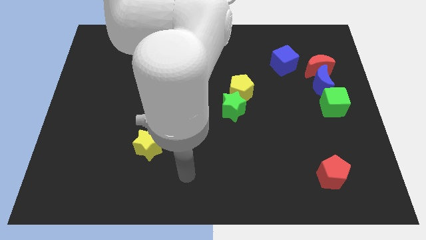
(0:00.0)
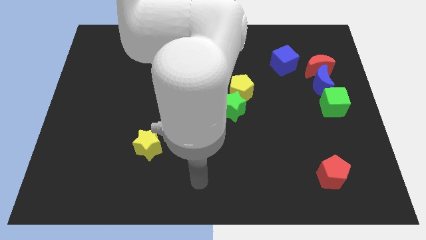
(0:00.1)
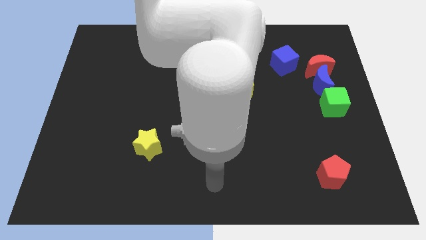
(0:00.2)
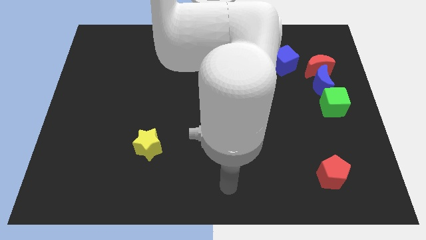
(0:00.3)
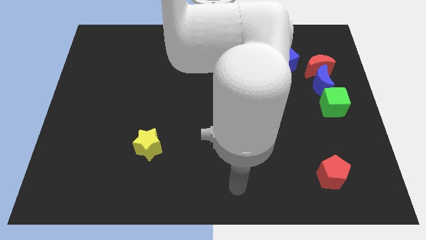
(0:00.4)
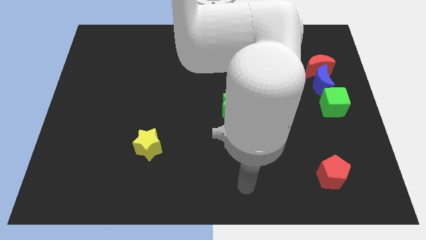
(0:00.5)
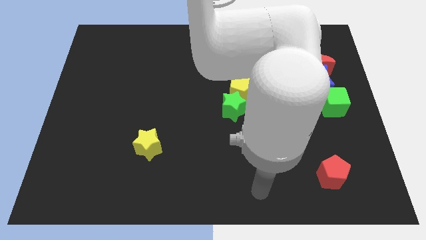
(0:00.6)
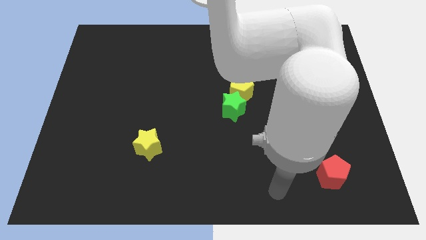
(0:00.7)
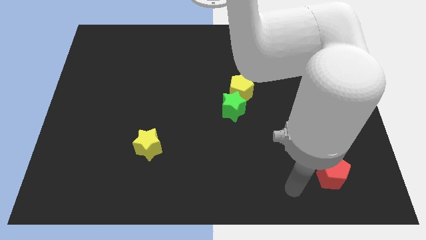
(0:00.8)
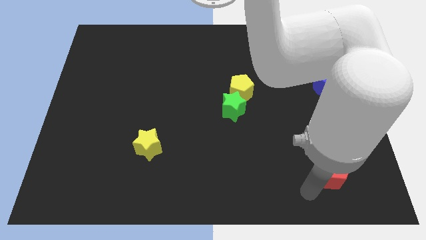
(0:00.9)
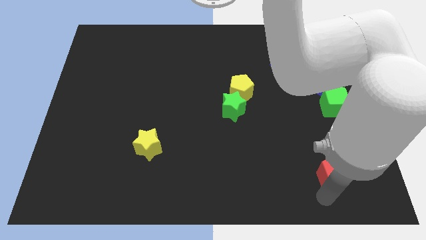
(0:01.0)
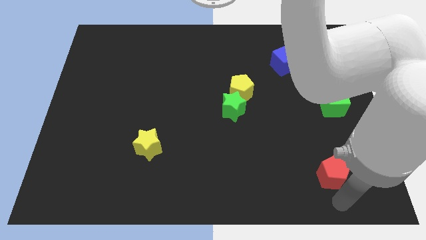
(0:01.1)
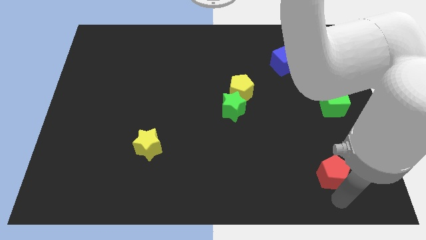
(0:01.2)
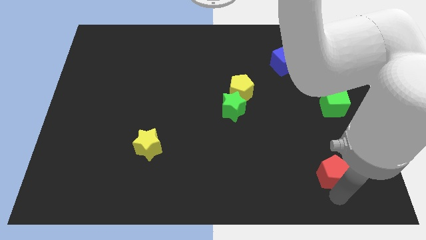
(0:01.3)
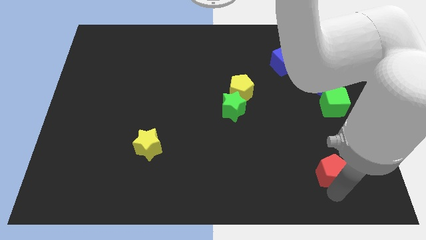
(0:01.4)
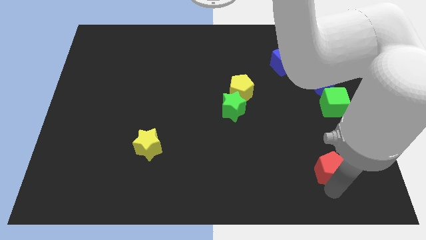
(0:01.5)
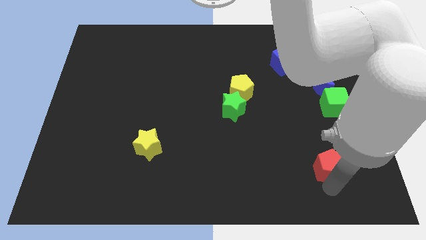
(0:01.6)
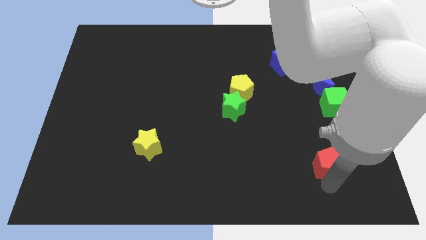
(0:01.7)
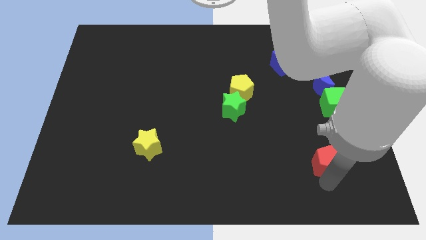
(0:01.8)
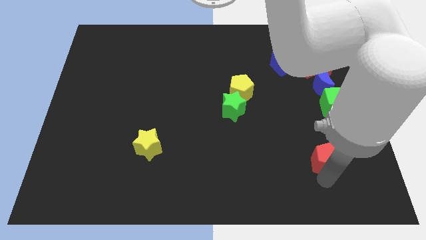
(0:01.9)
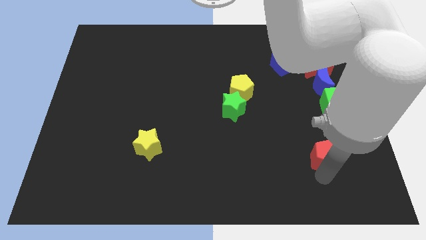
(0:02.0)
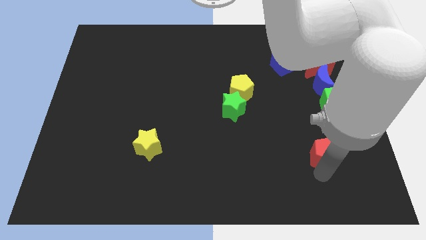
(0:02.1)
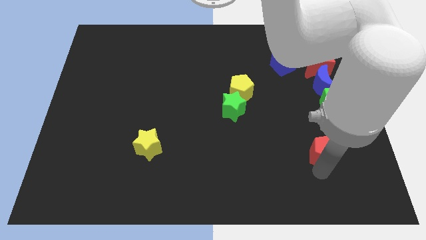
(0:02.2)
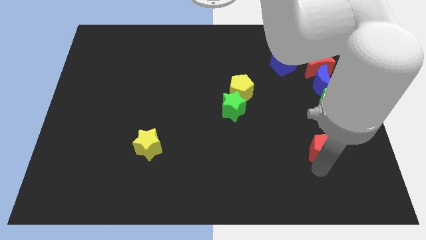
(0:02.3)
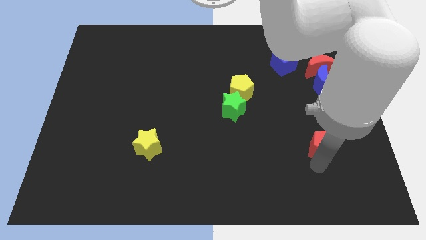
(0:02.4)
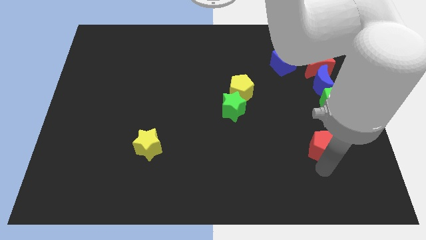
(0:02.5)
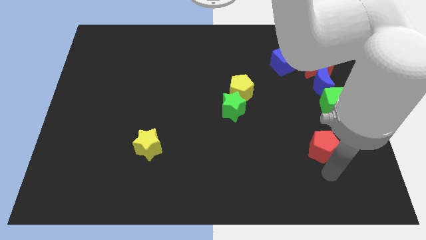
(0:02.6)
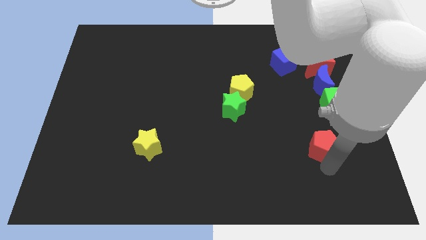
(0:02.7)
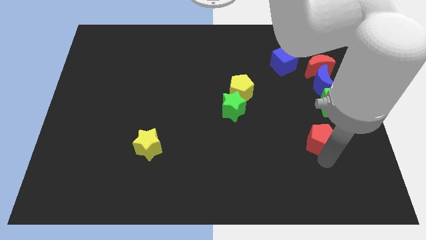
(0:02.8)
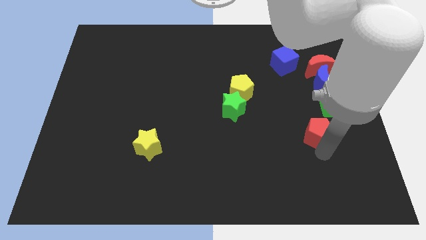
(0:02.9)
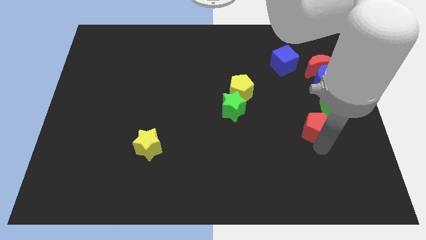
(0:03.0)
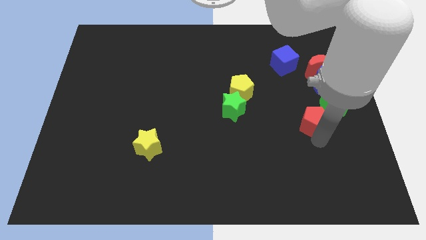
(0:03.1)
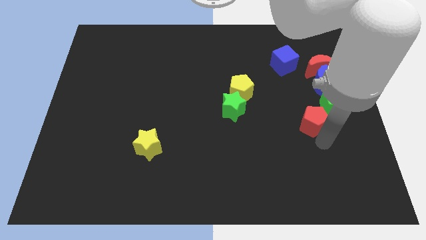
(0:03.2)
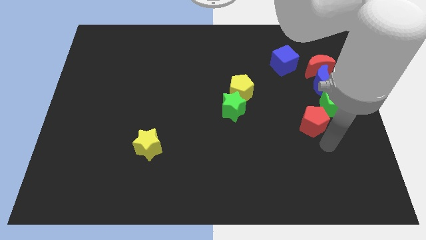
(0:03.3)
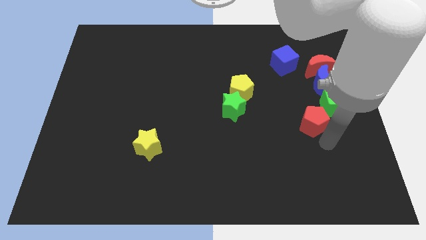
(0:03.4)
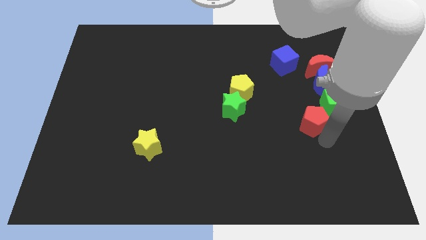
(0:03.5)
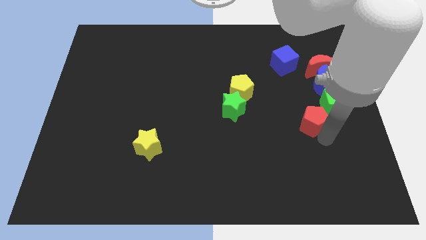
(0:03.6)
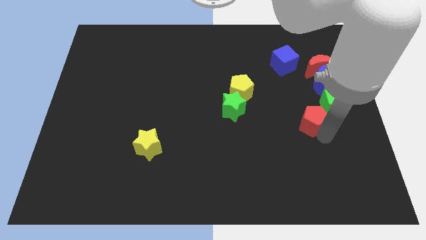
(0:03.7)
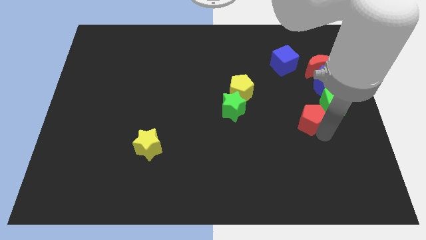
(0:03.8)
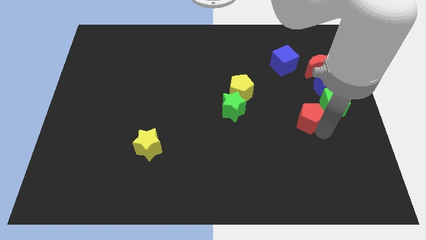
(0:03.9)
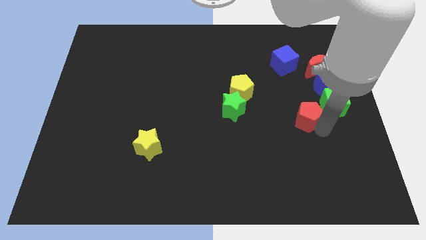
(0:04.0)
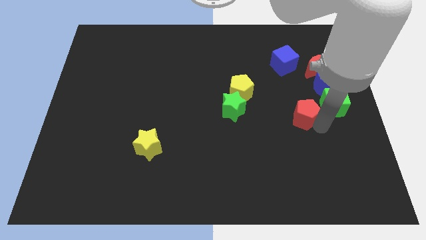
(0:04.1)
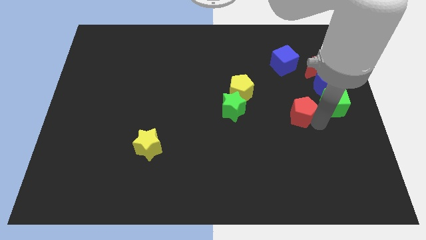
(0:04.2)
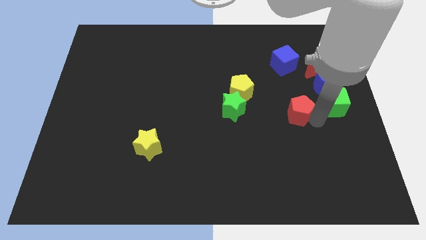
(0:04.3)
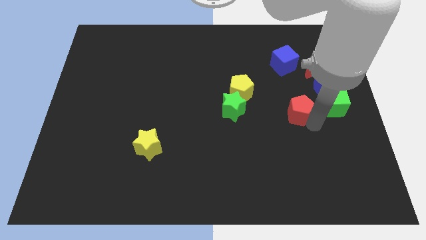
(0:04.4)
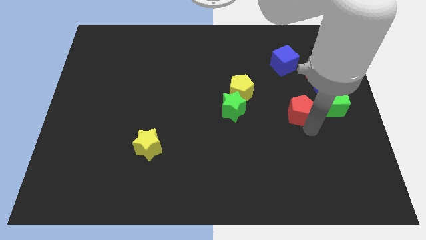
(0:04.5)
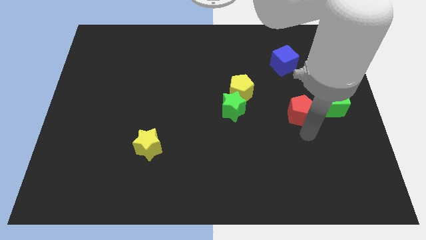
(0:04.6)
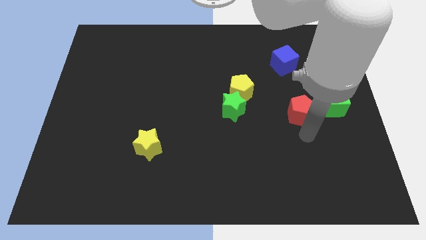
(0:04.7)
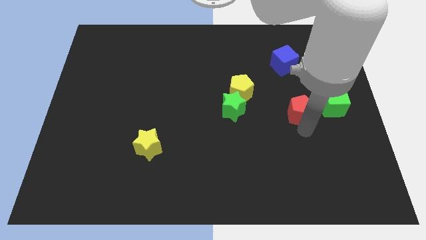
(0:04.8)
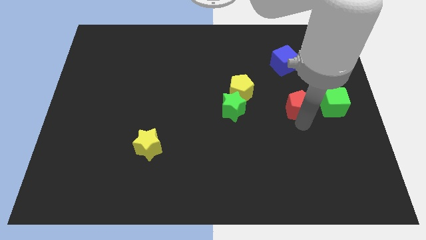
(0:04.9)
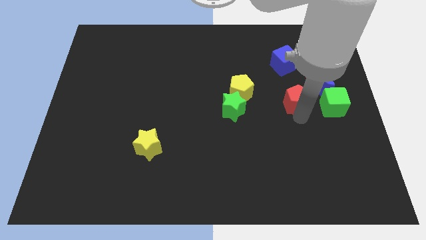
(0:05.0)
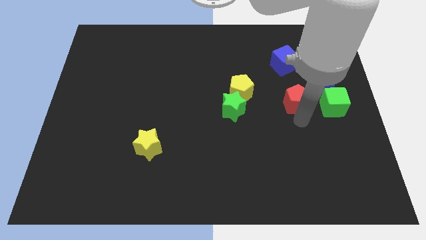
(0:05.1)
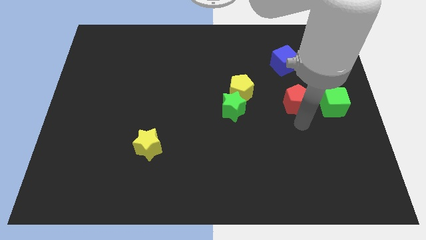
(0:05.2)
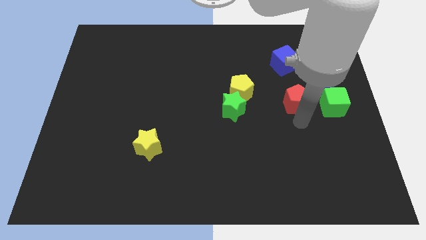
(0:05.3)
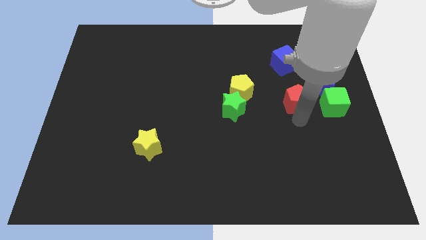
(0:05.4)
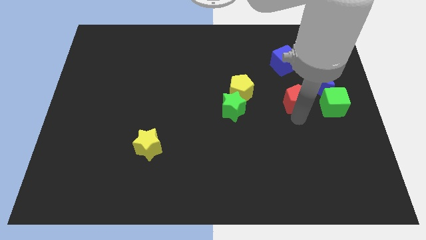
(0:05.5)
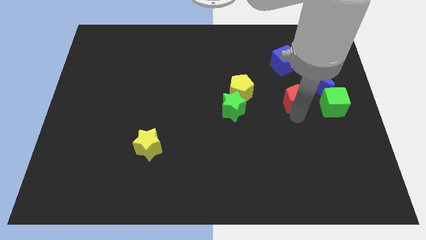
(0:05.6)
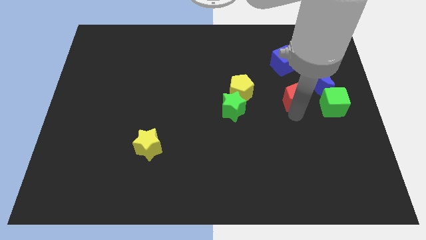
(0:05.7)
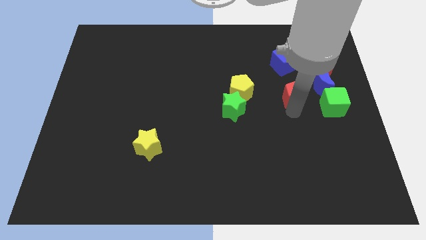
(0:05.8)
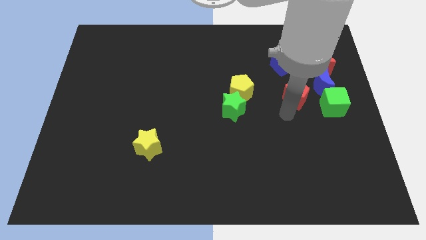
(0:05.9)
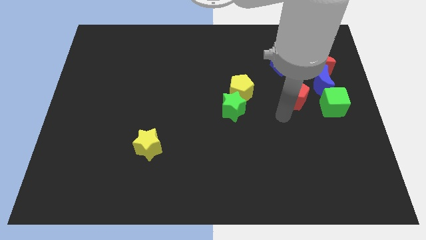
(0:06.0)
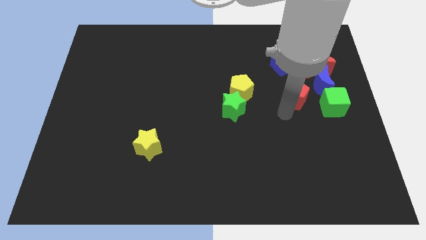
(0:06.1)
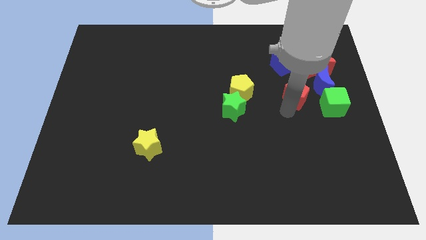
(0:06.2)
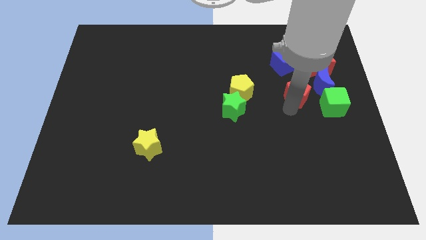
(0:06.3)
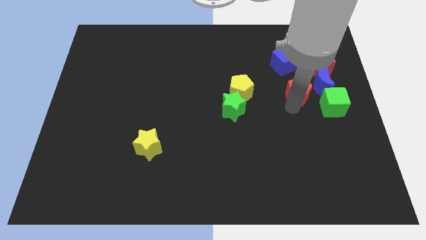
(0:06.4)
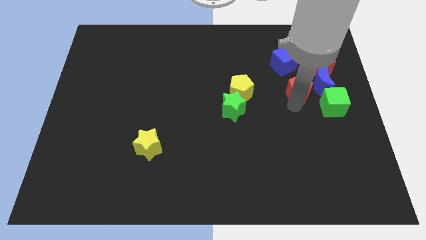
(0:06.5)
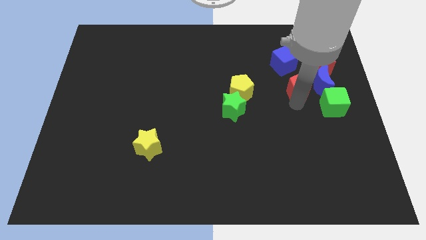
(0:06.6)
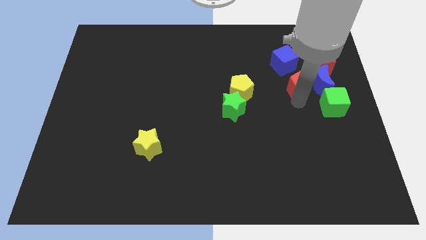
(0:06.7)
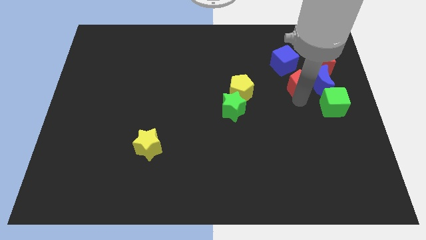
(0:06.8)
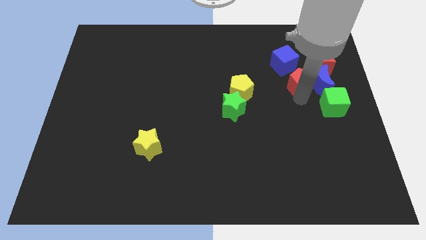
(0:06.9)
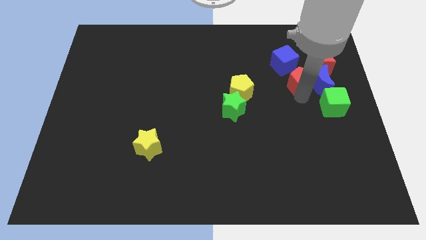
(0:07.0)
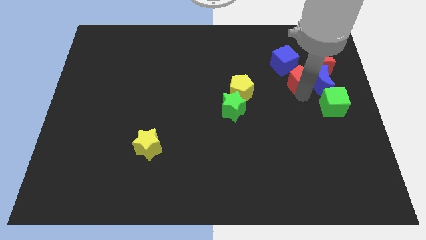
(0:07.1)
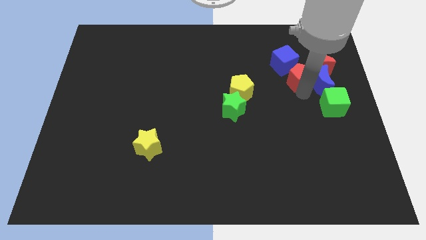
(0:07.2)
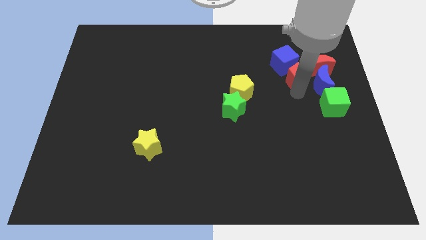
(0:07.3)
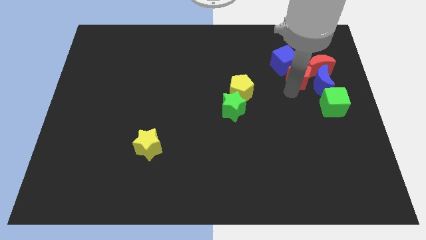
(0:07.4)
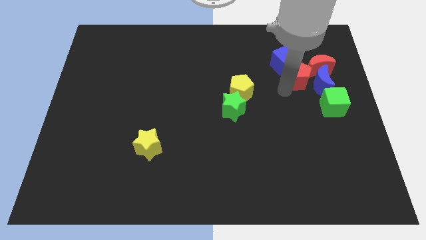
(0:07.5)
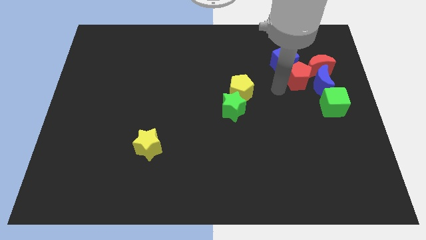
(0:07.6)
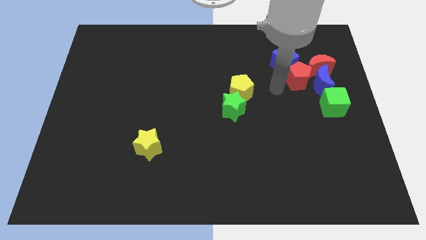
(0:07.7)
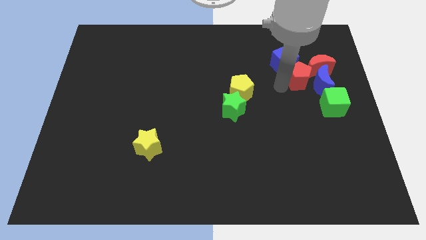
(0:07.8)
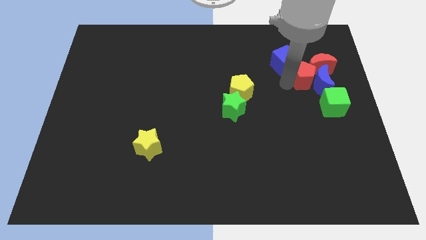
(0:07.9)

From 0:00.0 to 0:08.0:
put the red pentagon next to the red moon
